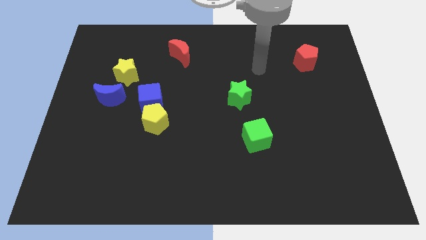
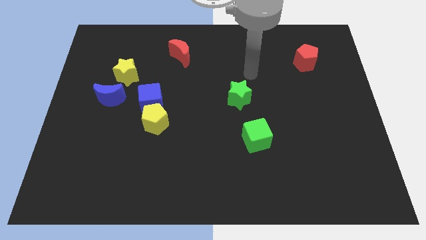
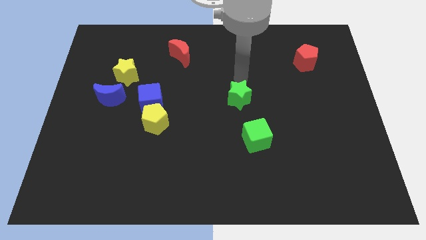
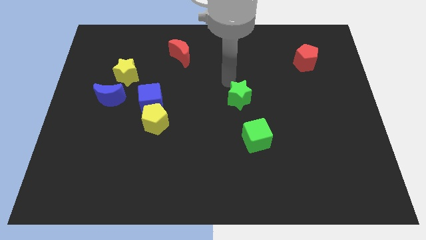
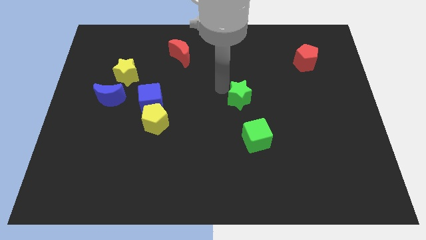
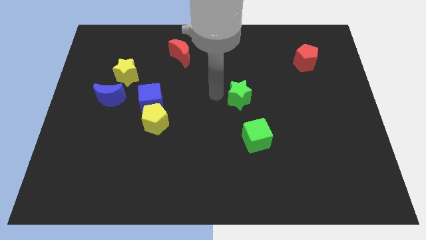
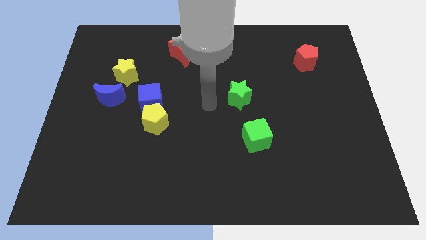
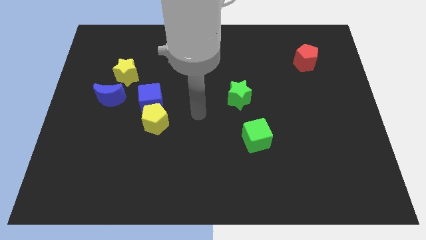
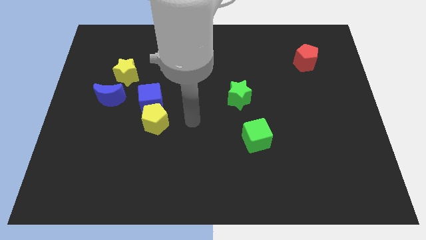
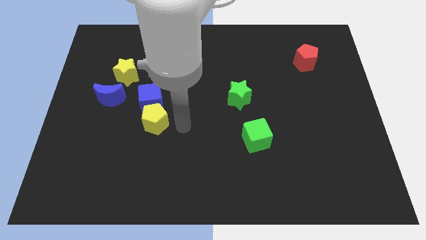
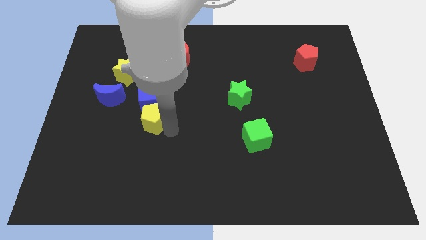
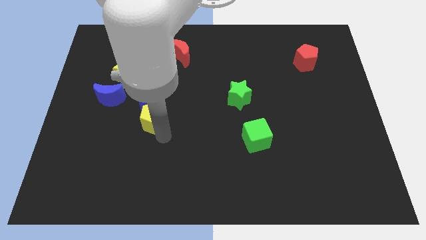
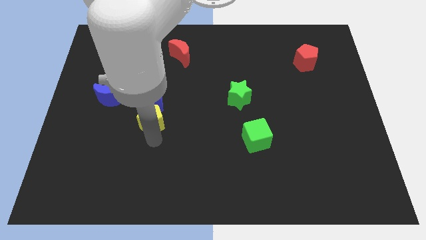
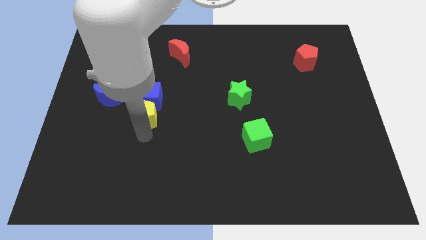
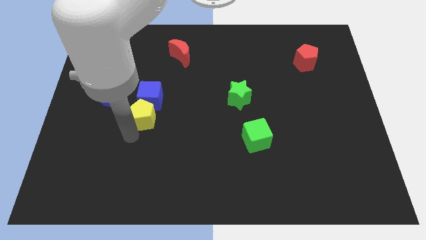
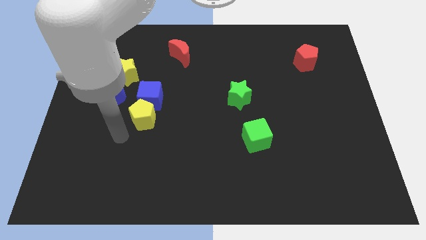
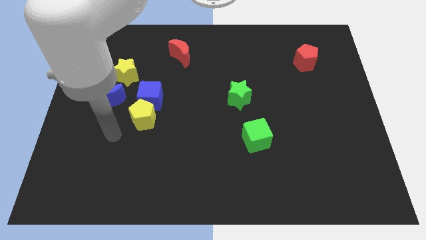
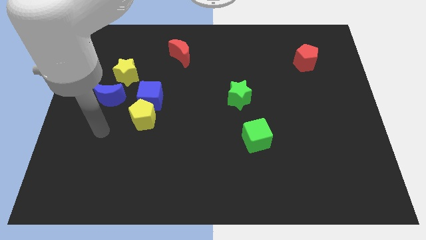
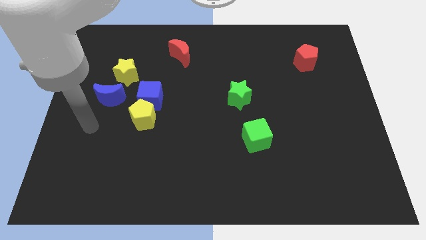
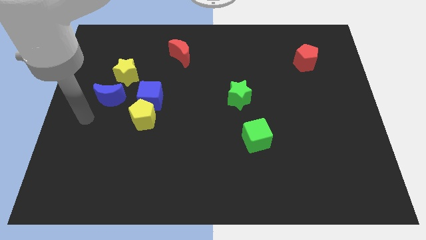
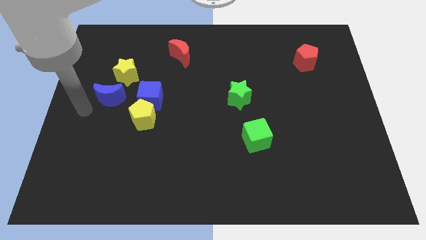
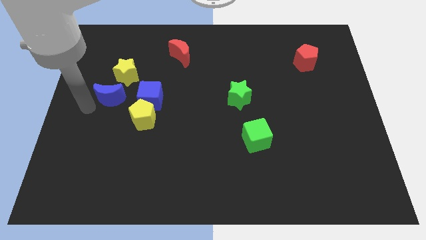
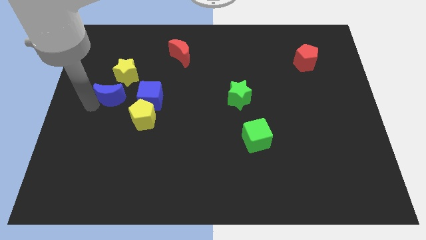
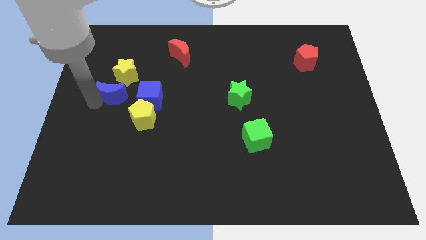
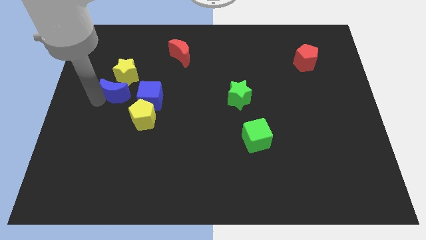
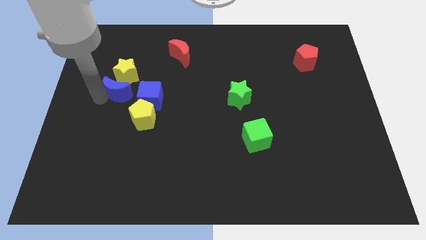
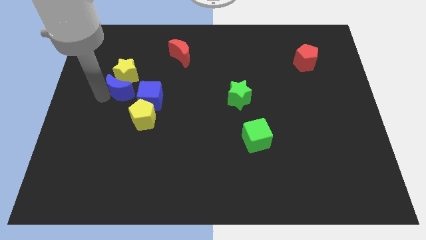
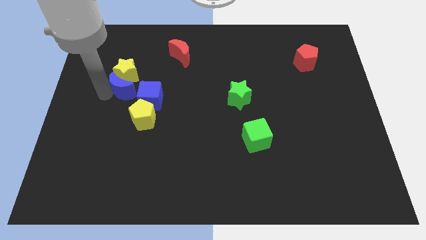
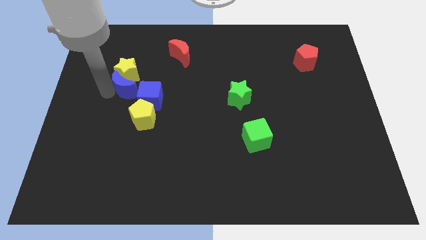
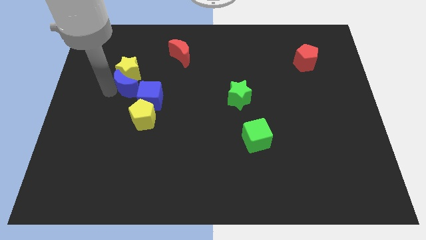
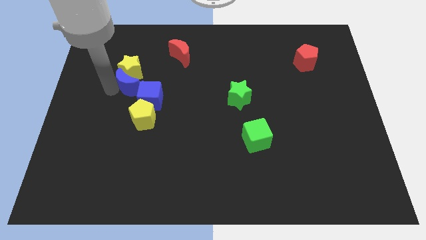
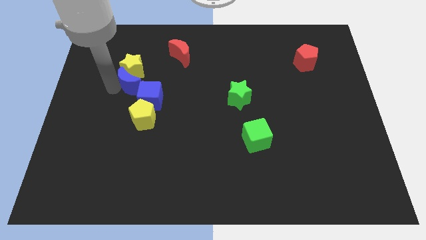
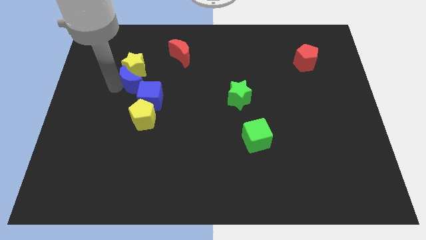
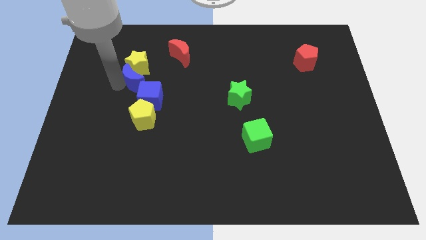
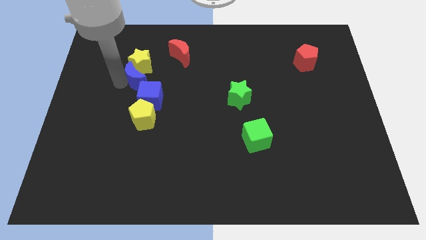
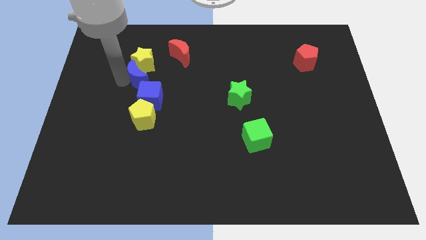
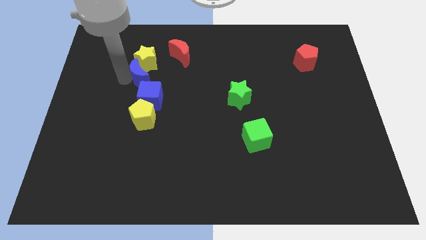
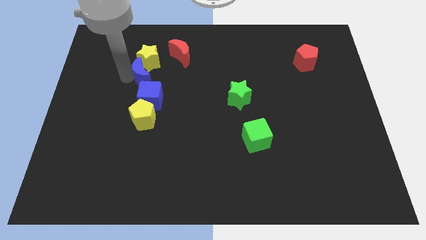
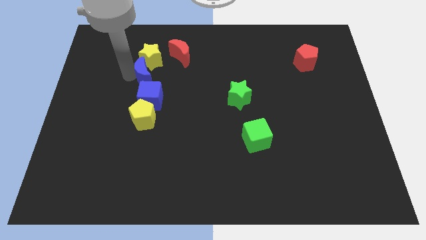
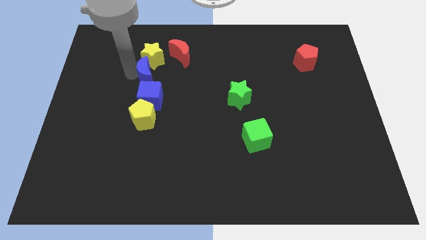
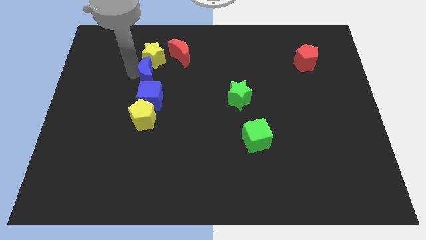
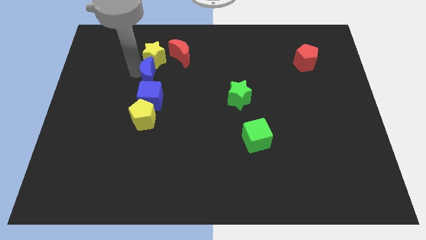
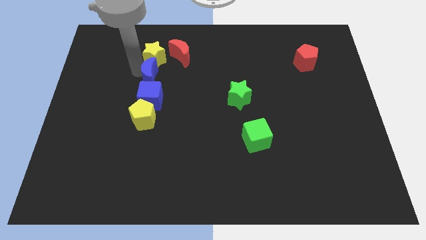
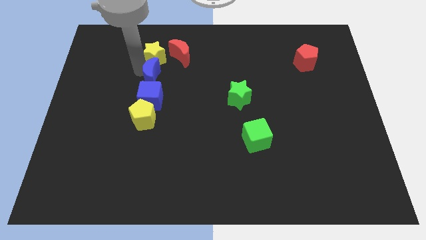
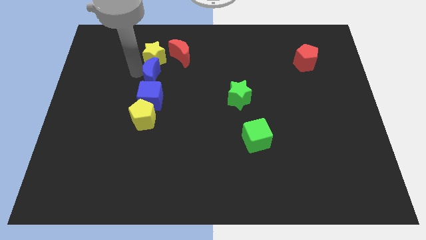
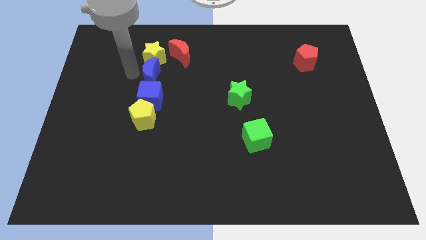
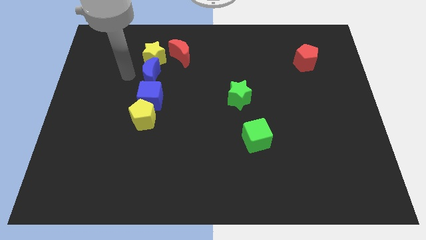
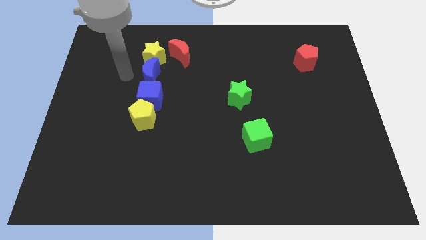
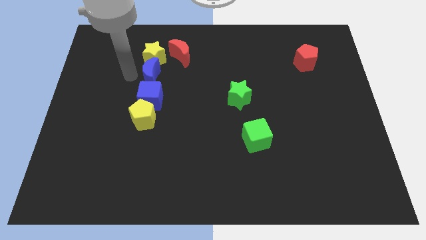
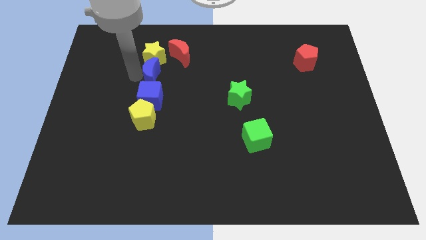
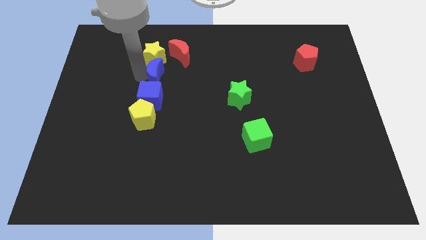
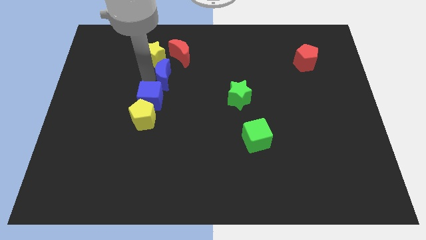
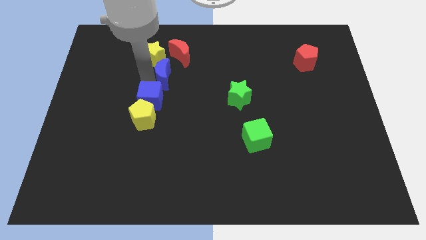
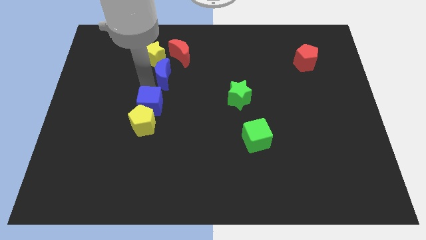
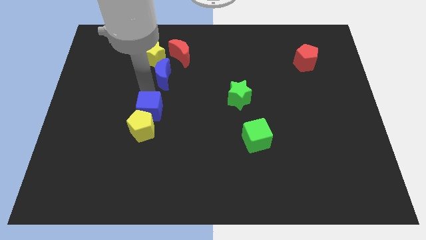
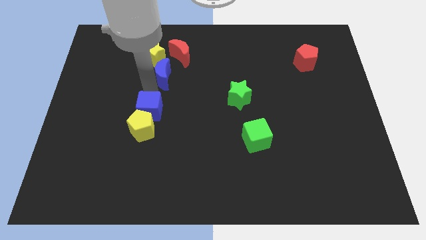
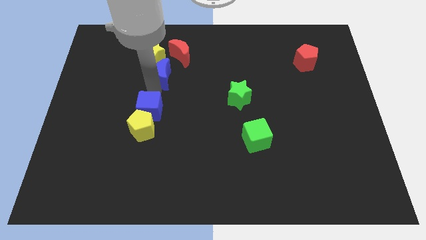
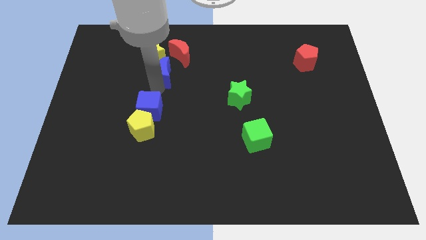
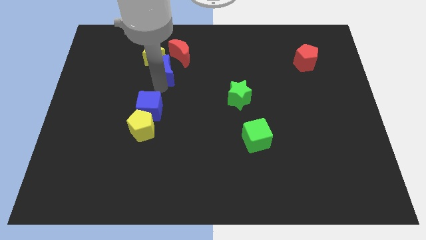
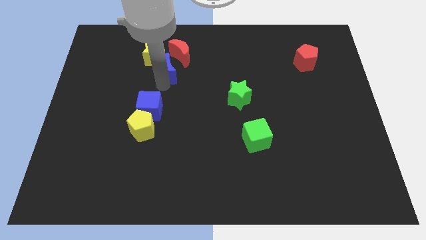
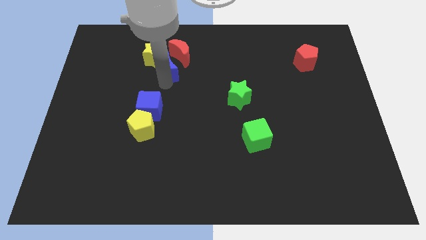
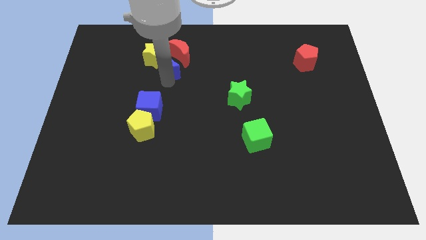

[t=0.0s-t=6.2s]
push the blue moon to the red moon
